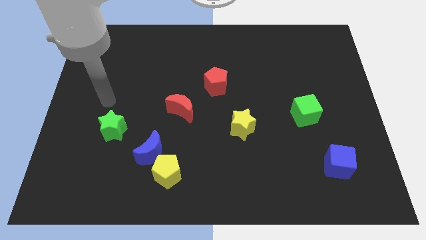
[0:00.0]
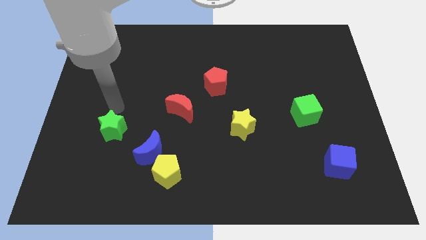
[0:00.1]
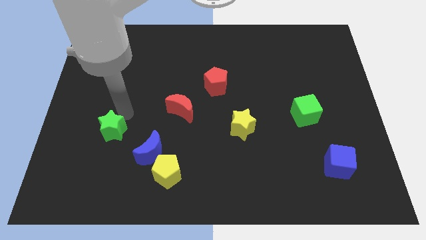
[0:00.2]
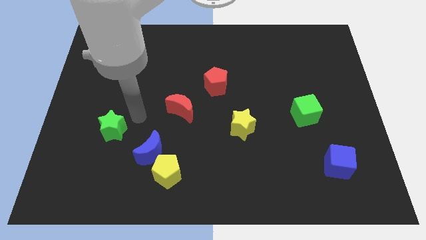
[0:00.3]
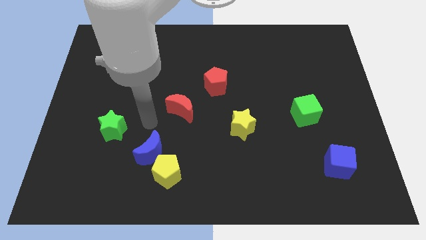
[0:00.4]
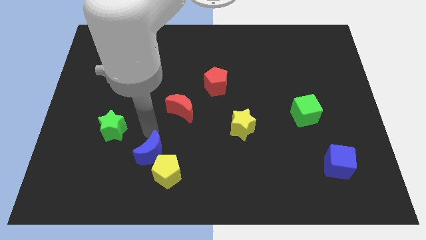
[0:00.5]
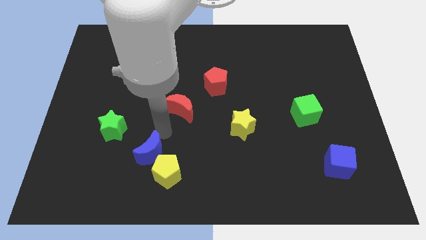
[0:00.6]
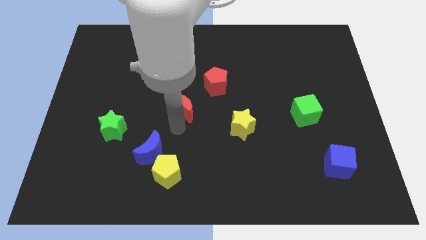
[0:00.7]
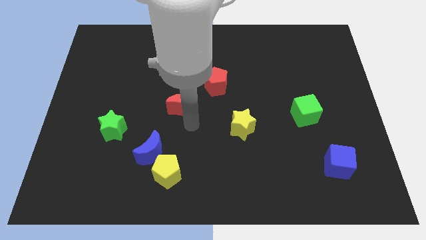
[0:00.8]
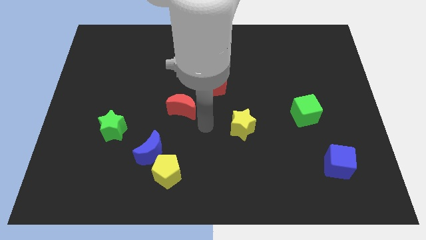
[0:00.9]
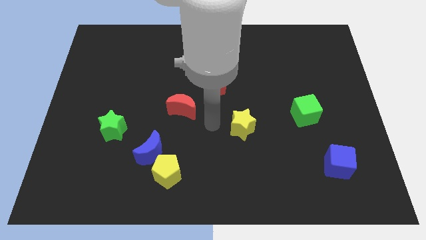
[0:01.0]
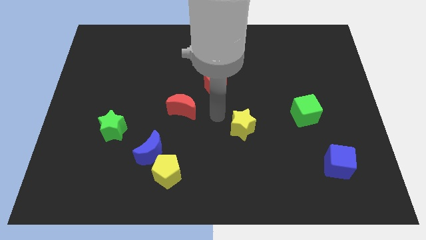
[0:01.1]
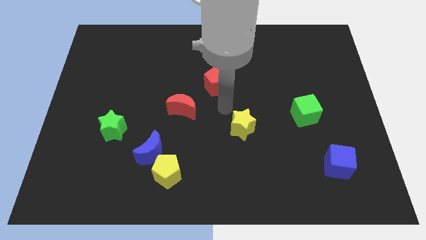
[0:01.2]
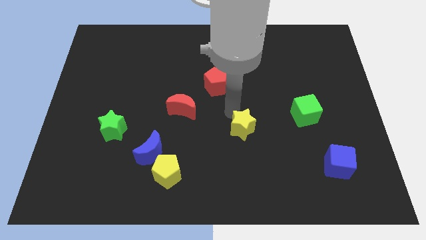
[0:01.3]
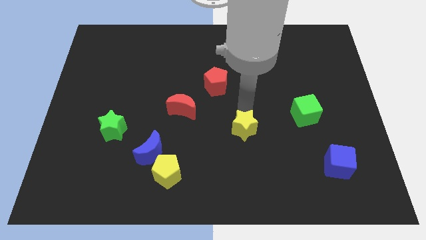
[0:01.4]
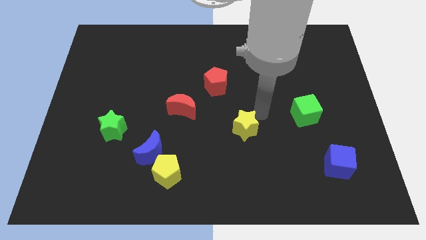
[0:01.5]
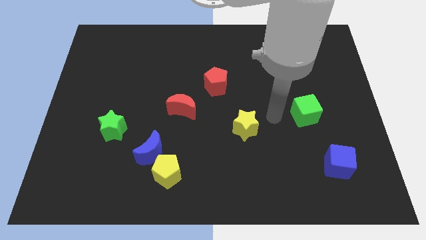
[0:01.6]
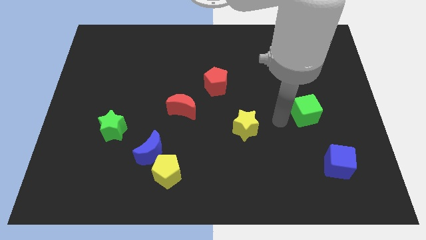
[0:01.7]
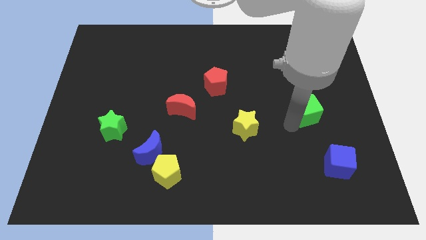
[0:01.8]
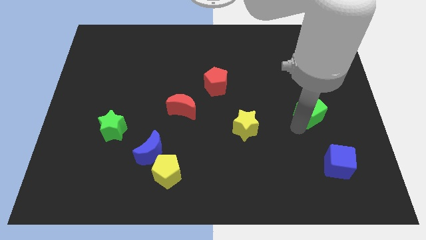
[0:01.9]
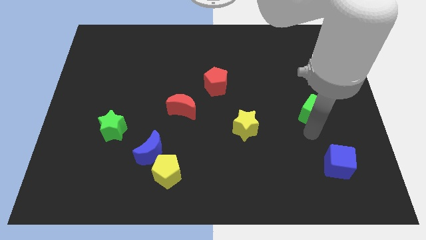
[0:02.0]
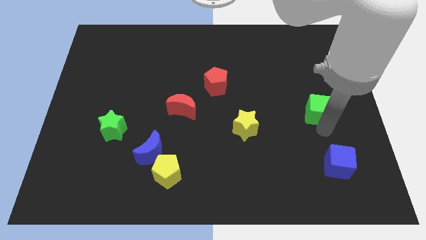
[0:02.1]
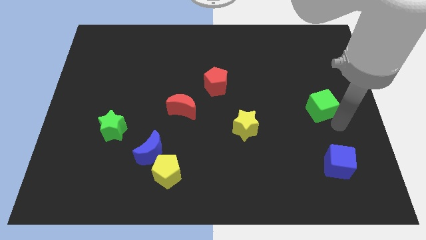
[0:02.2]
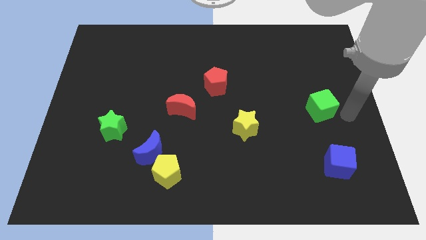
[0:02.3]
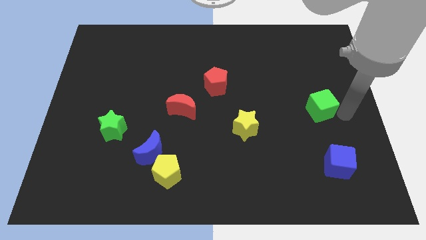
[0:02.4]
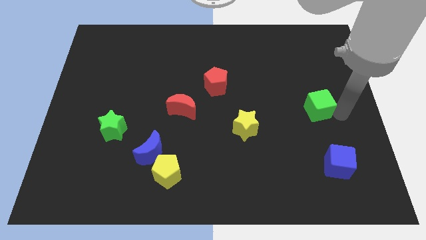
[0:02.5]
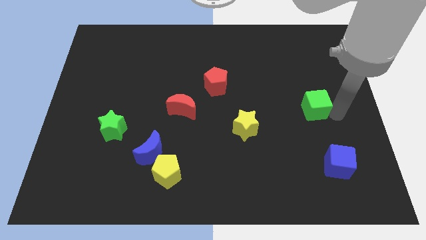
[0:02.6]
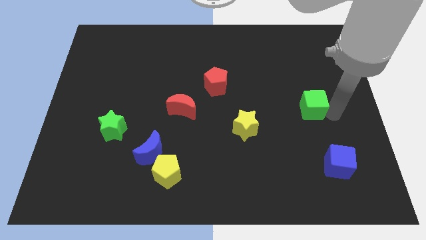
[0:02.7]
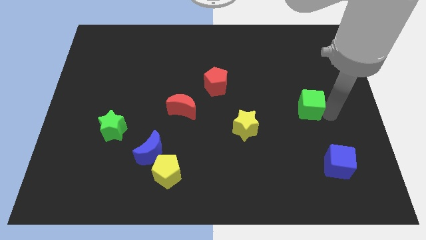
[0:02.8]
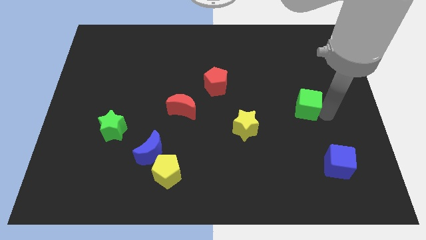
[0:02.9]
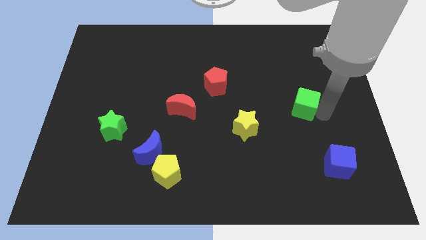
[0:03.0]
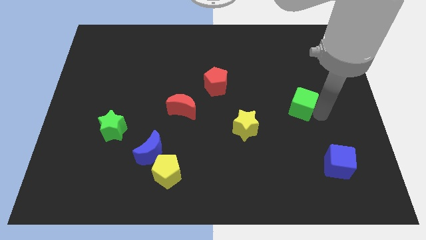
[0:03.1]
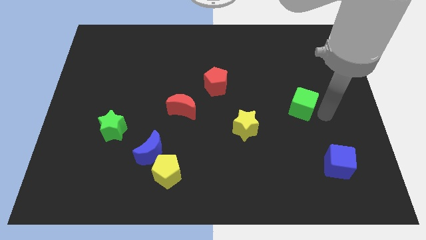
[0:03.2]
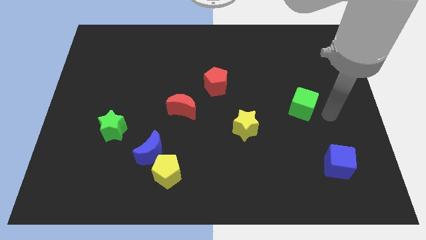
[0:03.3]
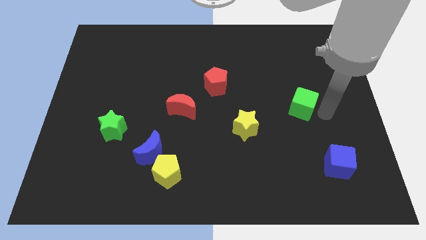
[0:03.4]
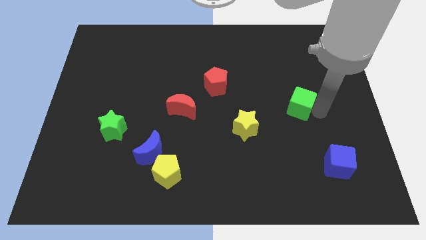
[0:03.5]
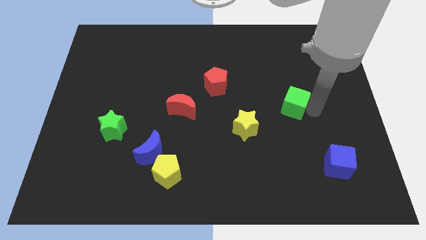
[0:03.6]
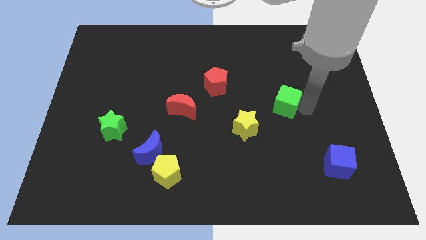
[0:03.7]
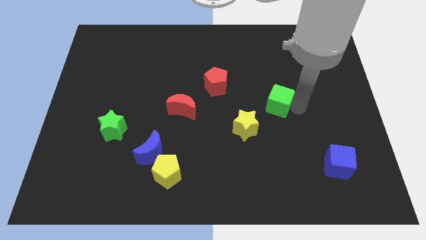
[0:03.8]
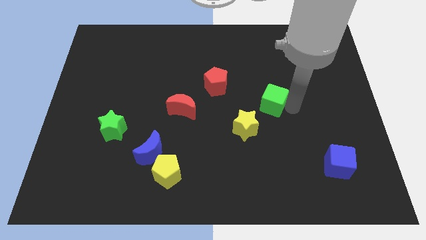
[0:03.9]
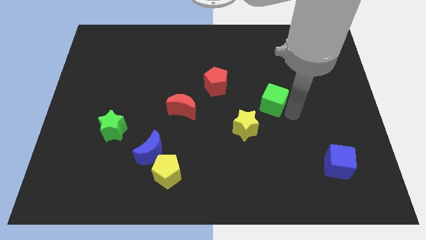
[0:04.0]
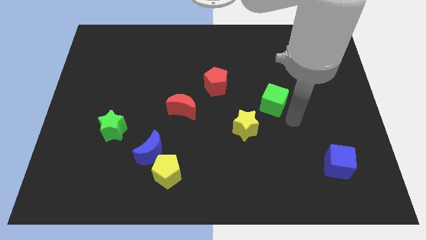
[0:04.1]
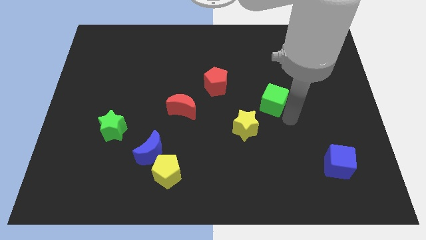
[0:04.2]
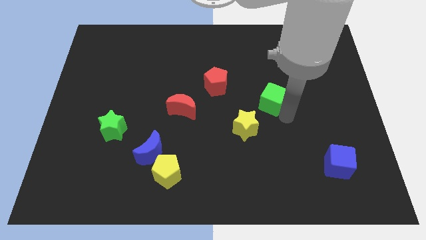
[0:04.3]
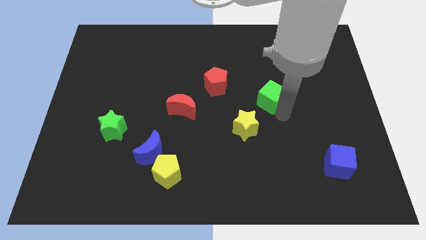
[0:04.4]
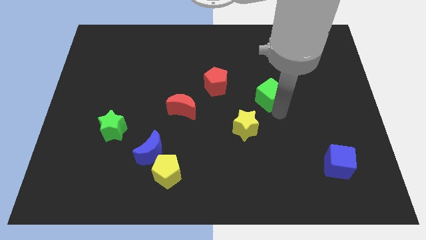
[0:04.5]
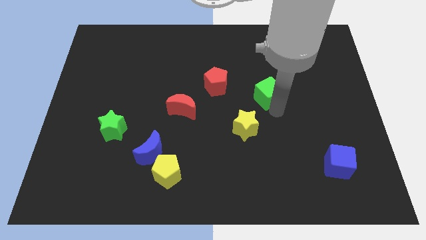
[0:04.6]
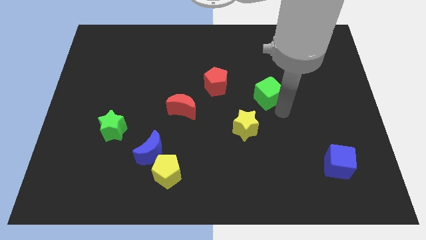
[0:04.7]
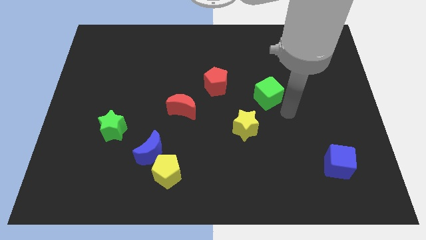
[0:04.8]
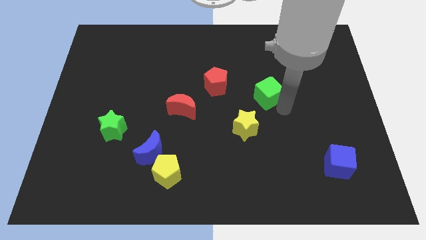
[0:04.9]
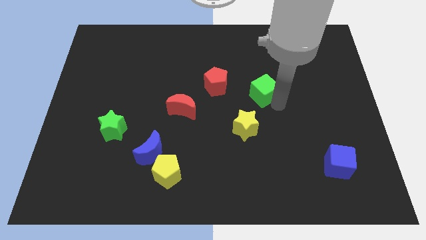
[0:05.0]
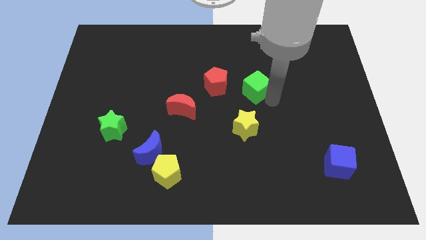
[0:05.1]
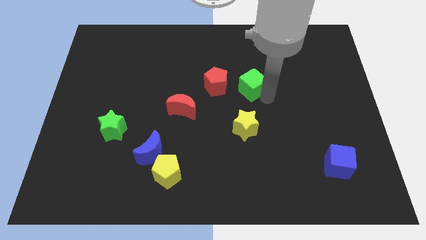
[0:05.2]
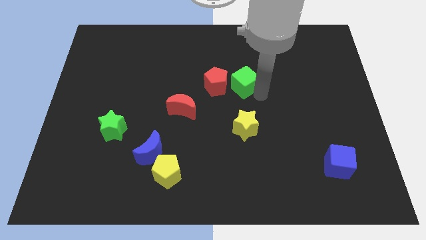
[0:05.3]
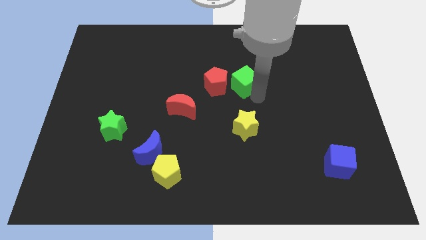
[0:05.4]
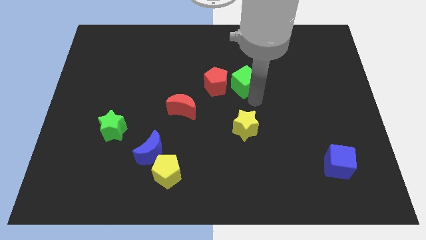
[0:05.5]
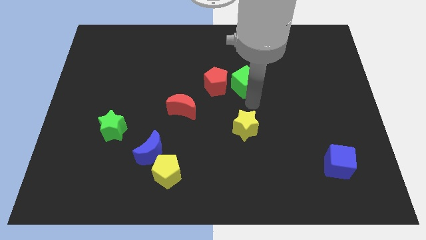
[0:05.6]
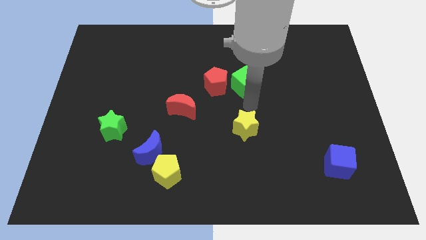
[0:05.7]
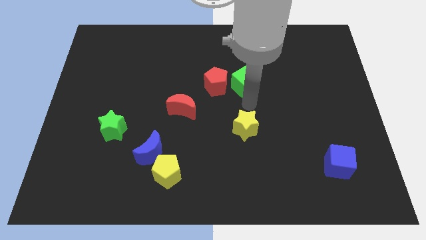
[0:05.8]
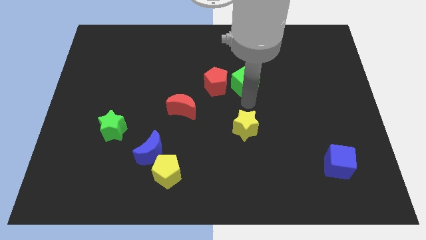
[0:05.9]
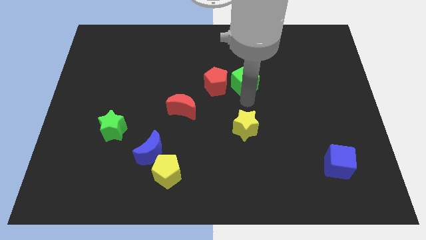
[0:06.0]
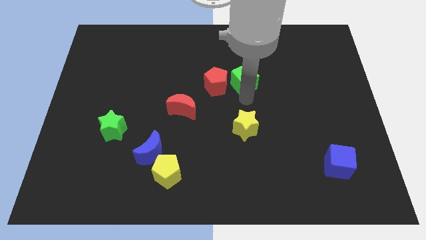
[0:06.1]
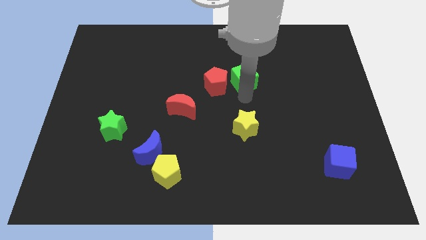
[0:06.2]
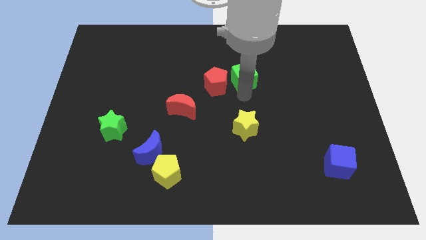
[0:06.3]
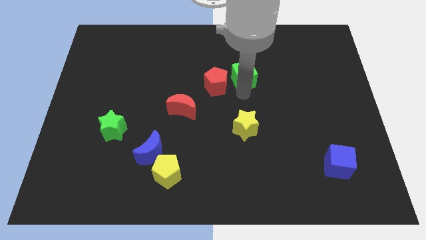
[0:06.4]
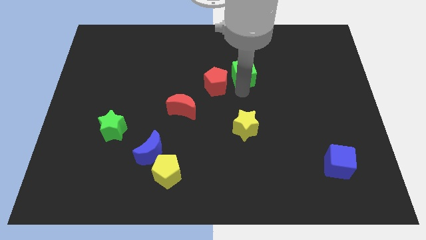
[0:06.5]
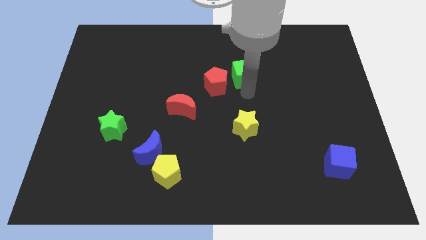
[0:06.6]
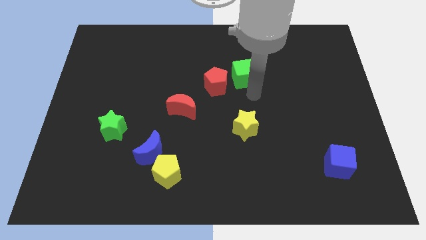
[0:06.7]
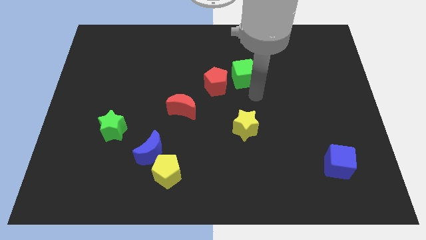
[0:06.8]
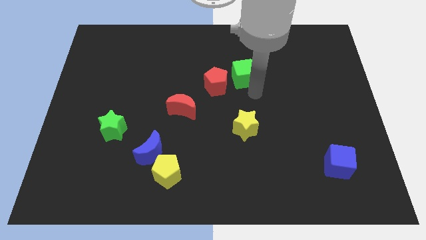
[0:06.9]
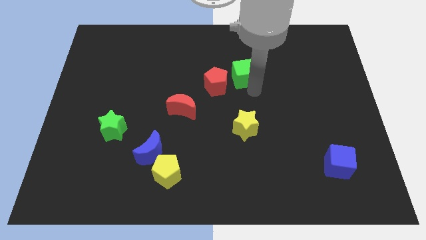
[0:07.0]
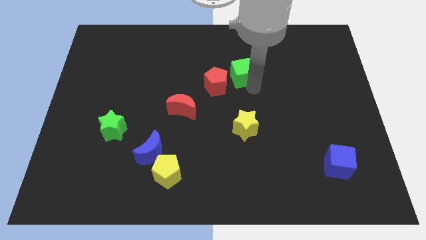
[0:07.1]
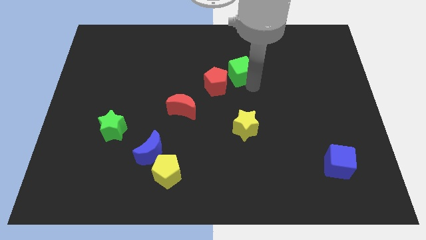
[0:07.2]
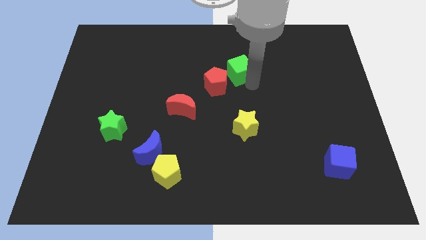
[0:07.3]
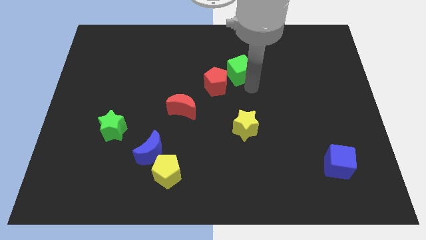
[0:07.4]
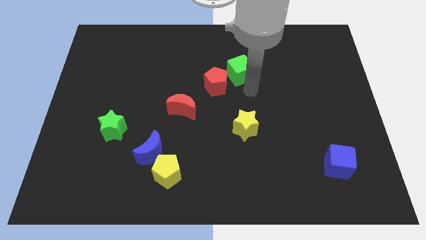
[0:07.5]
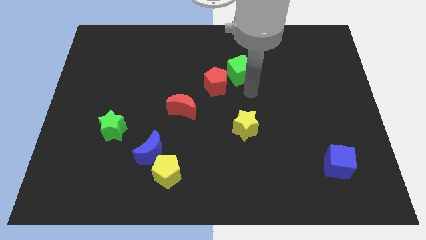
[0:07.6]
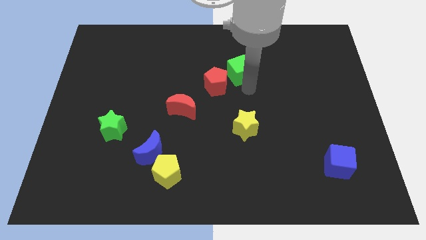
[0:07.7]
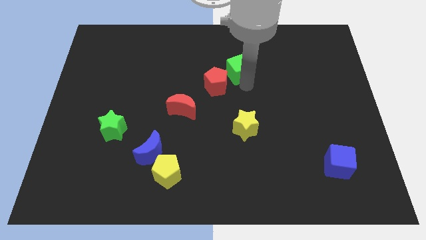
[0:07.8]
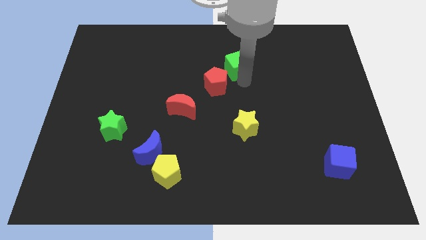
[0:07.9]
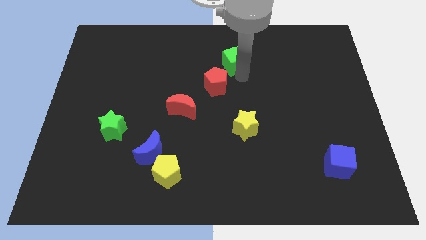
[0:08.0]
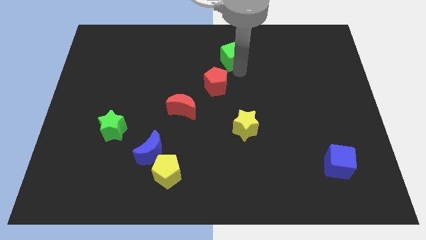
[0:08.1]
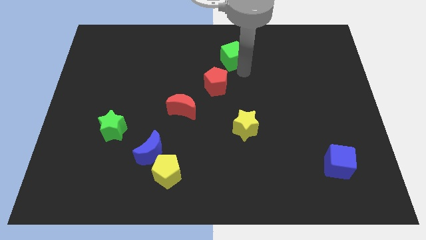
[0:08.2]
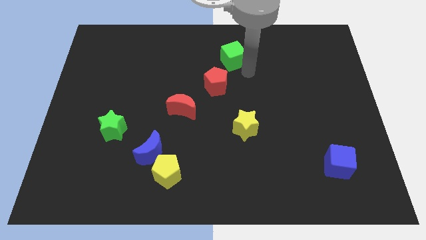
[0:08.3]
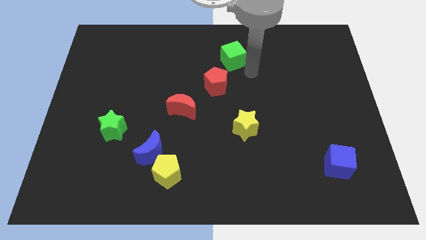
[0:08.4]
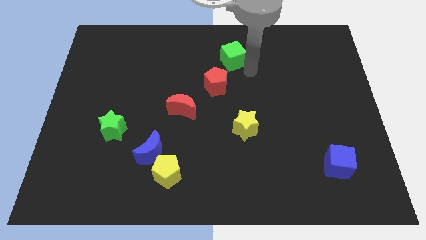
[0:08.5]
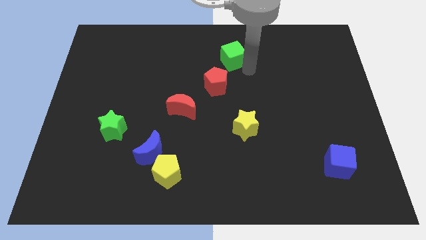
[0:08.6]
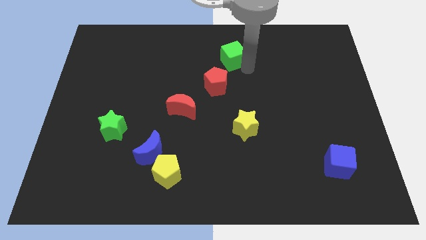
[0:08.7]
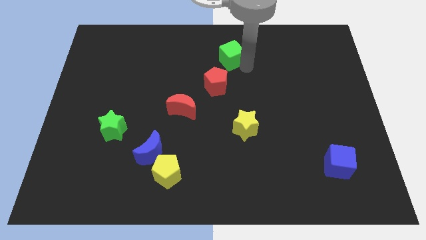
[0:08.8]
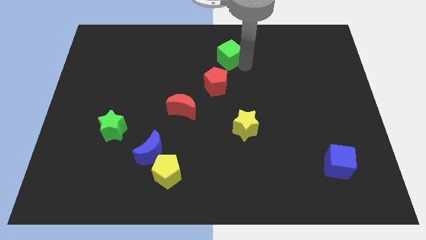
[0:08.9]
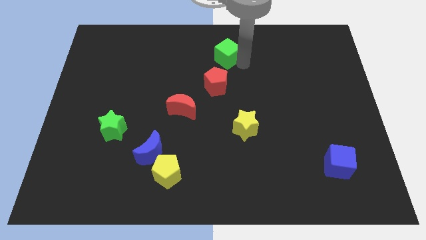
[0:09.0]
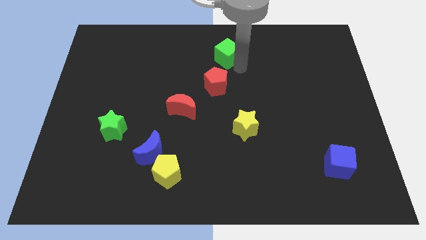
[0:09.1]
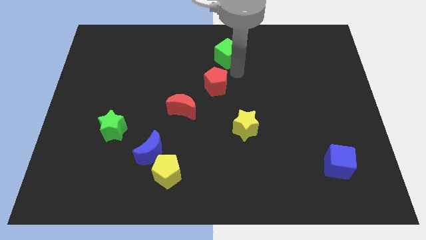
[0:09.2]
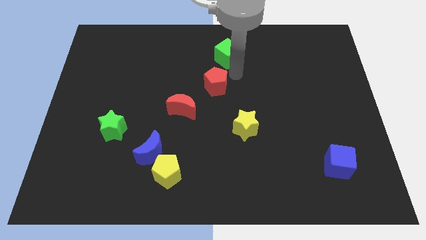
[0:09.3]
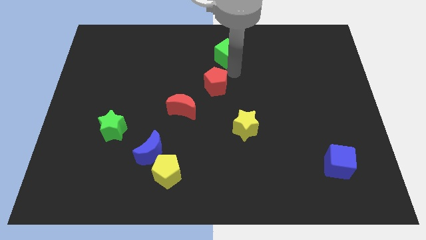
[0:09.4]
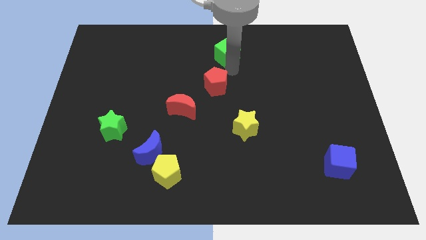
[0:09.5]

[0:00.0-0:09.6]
push the green cube to the top
